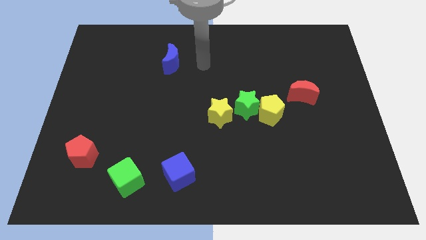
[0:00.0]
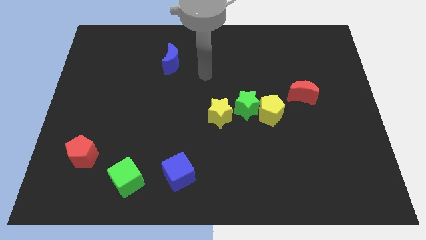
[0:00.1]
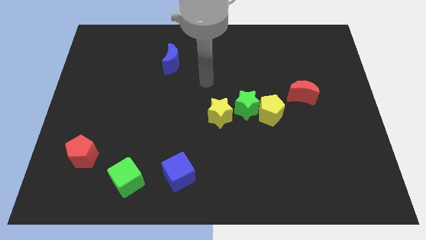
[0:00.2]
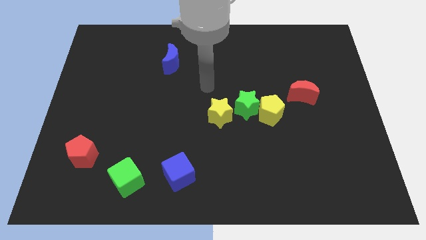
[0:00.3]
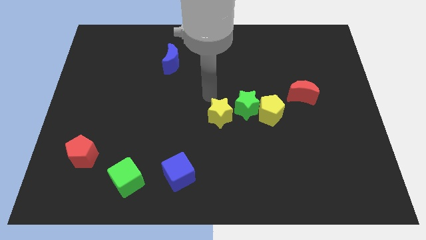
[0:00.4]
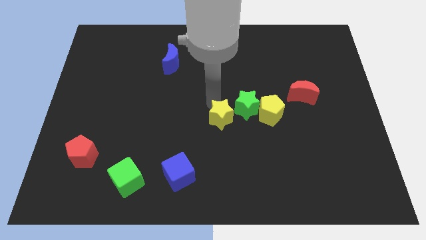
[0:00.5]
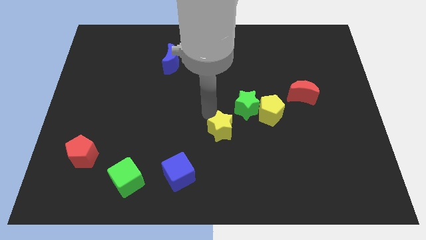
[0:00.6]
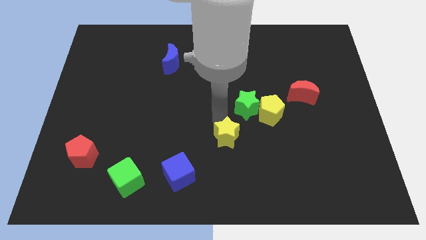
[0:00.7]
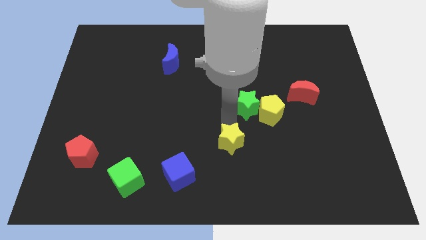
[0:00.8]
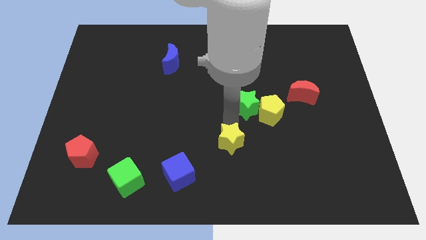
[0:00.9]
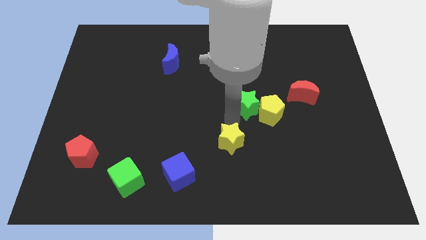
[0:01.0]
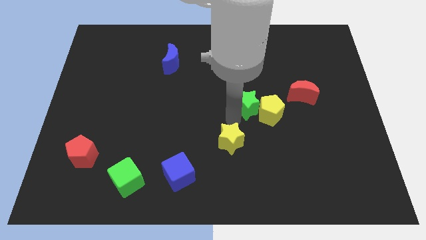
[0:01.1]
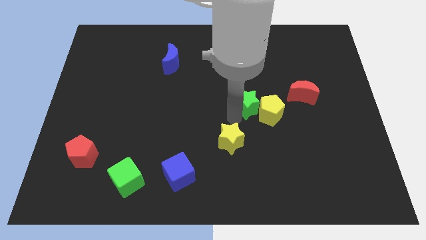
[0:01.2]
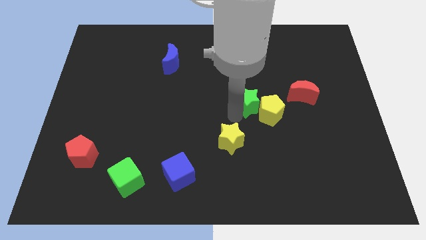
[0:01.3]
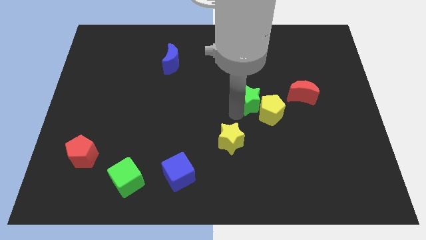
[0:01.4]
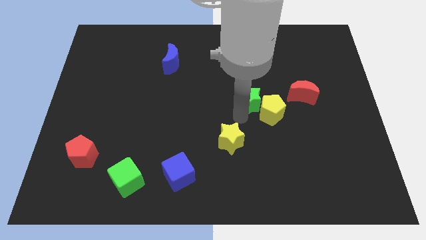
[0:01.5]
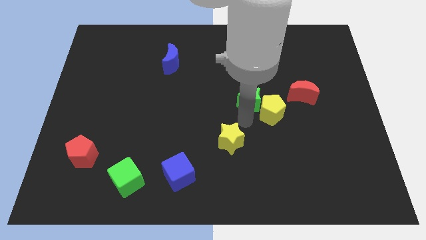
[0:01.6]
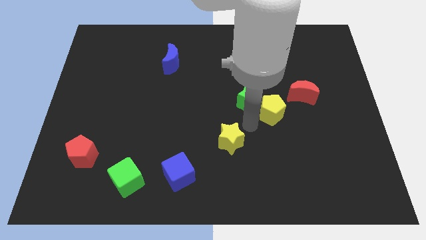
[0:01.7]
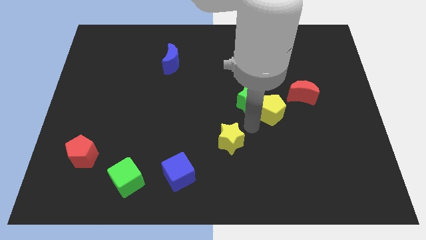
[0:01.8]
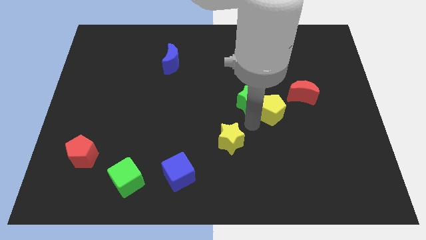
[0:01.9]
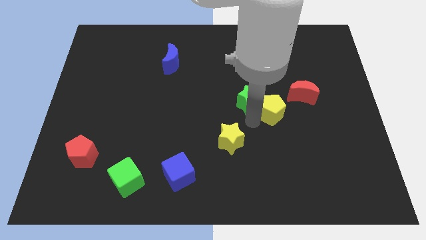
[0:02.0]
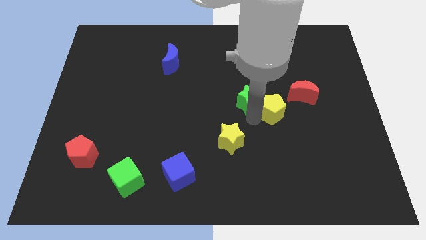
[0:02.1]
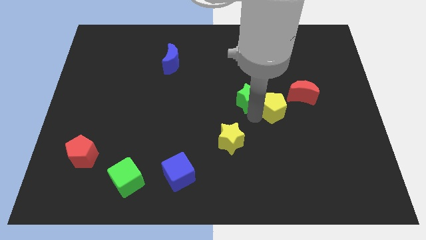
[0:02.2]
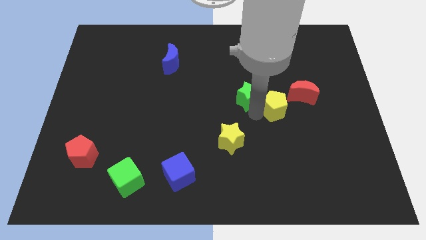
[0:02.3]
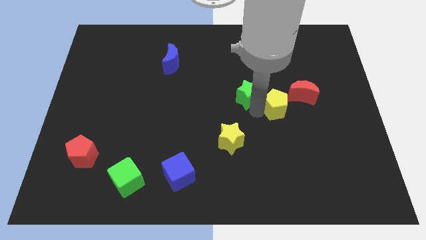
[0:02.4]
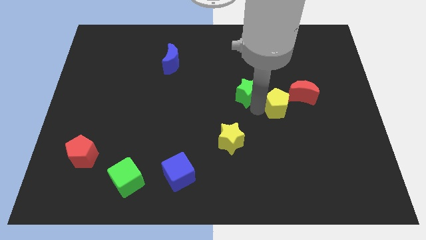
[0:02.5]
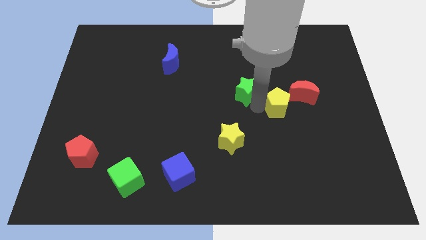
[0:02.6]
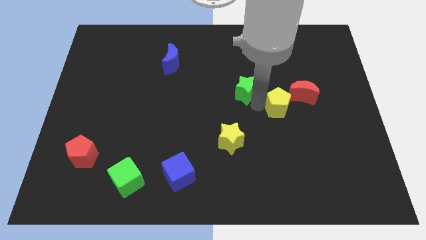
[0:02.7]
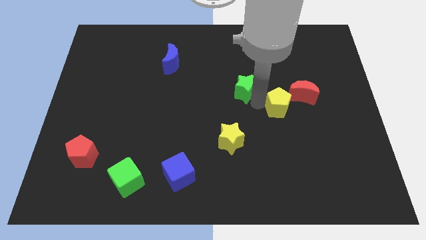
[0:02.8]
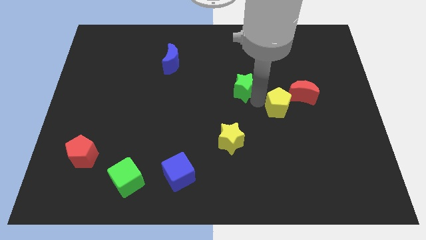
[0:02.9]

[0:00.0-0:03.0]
separate the green star from the yellow pentagon and yellow star

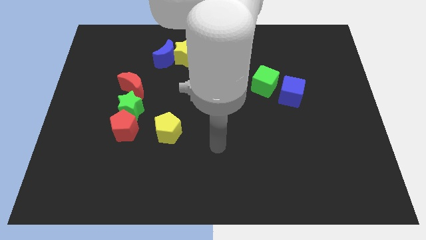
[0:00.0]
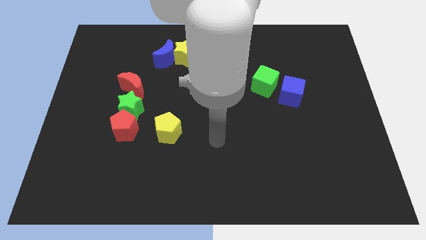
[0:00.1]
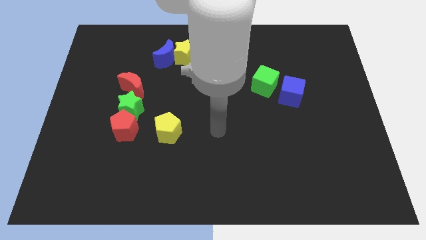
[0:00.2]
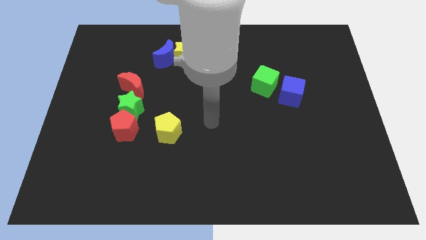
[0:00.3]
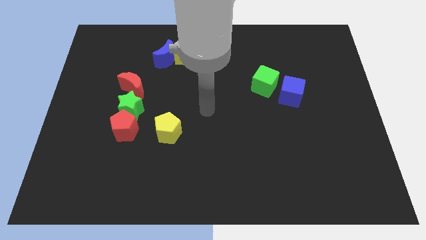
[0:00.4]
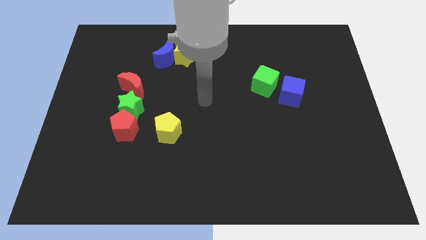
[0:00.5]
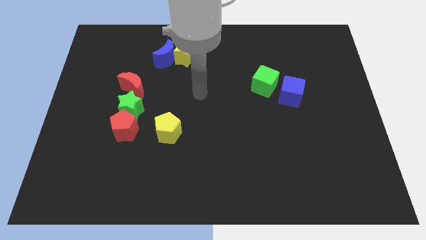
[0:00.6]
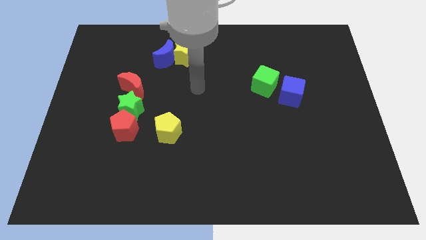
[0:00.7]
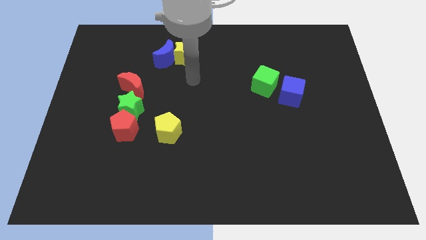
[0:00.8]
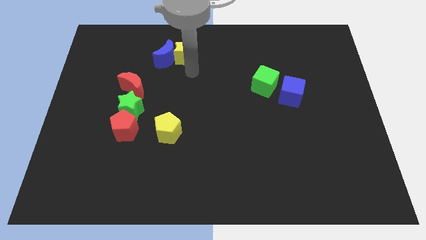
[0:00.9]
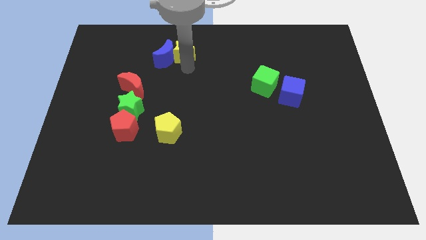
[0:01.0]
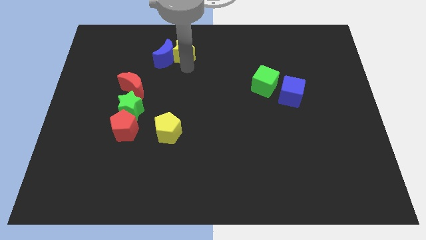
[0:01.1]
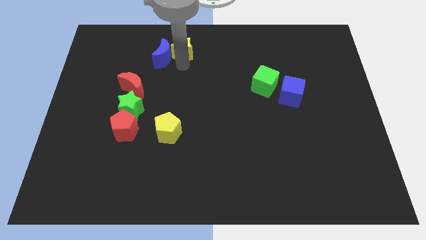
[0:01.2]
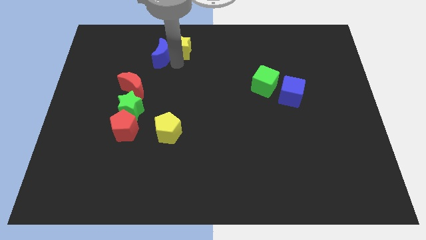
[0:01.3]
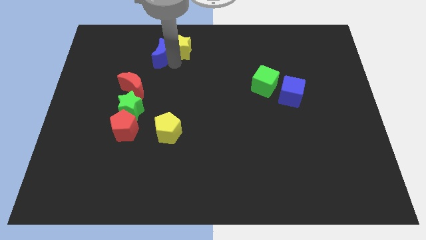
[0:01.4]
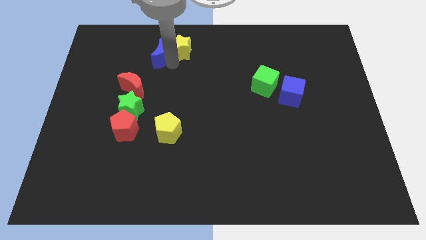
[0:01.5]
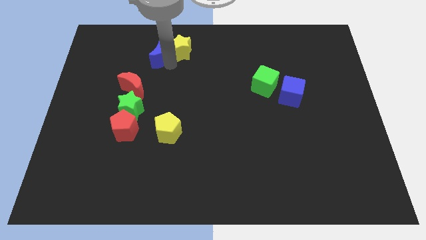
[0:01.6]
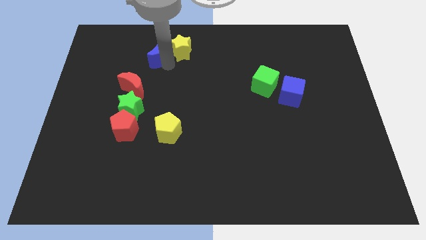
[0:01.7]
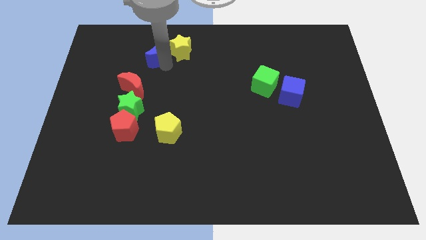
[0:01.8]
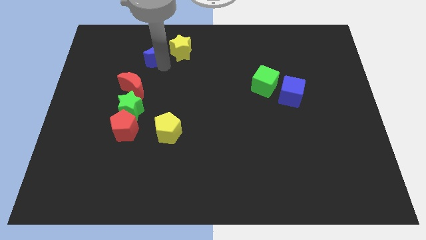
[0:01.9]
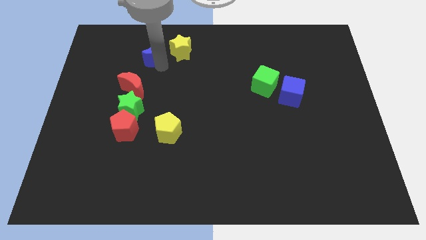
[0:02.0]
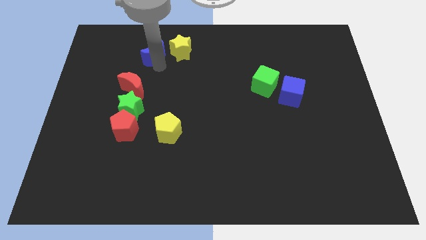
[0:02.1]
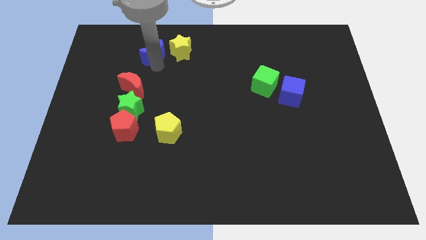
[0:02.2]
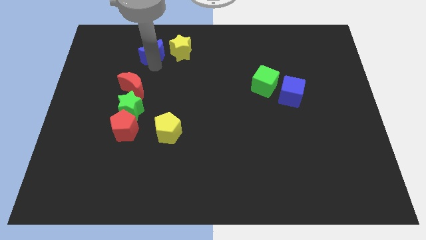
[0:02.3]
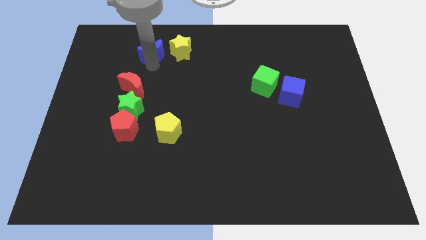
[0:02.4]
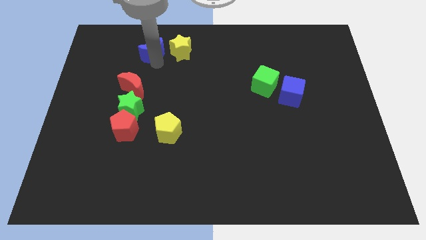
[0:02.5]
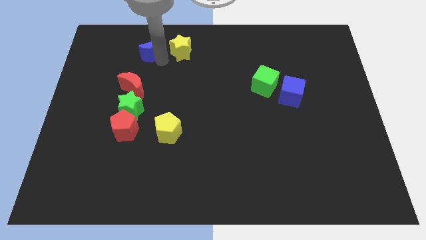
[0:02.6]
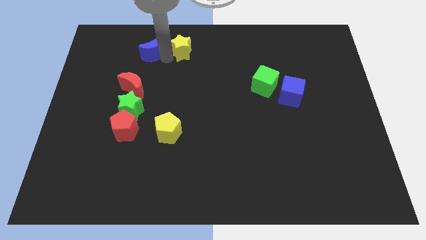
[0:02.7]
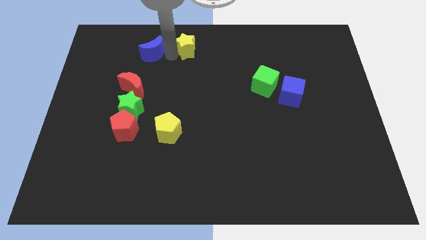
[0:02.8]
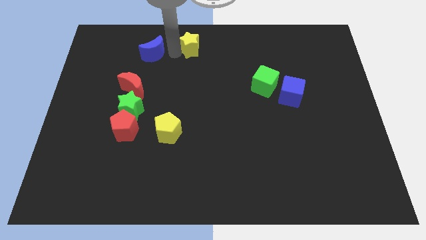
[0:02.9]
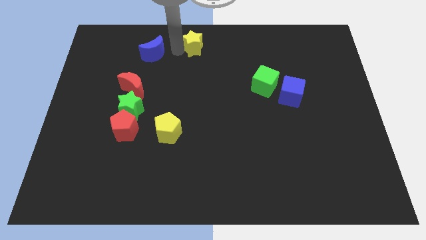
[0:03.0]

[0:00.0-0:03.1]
move the blue moon away from the yellow star

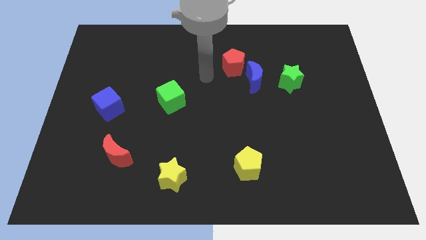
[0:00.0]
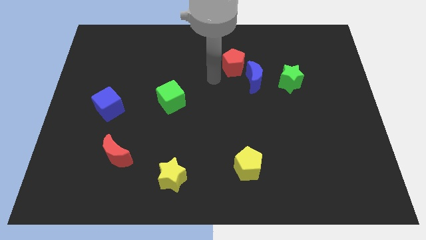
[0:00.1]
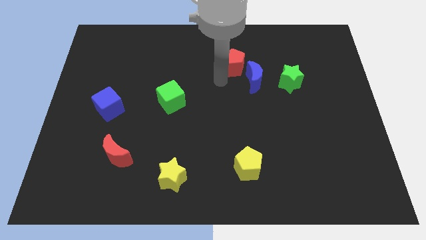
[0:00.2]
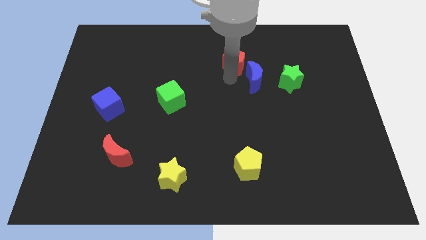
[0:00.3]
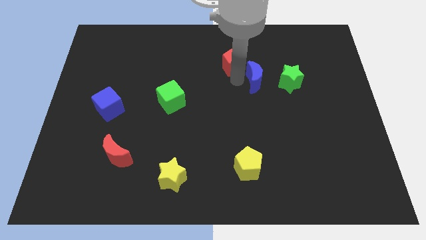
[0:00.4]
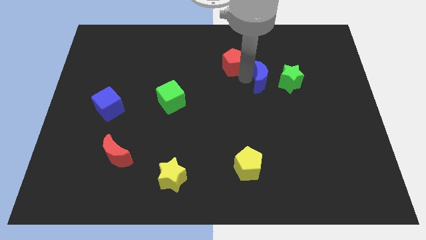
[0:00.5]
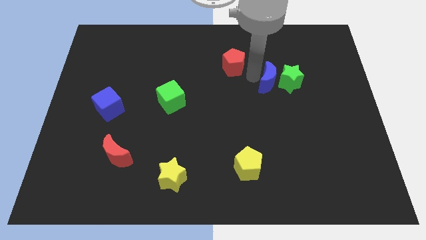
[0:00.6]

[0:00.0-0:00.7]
pull the red pentagon apart from the blue moon

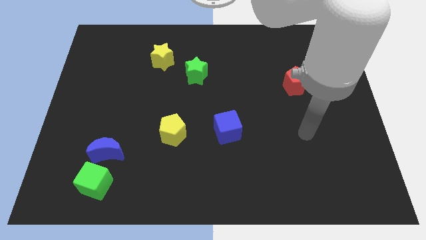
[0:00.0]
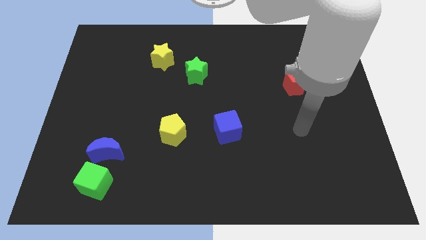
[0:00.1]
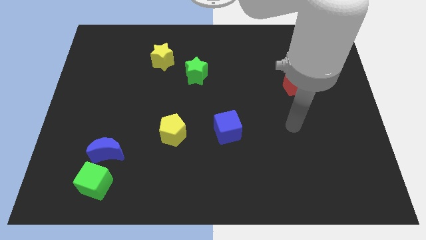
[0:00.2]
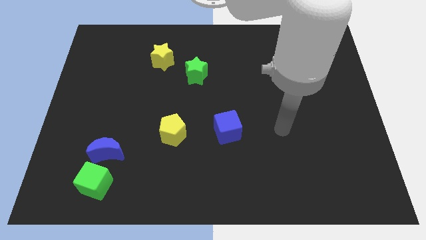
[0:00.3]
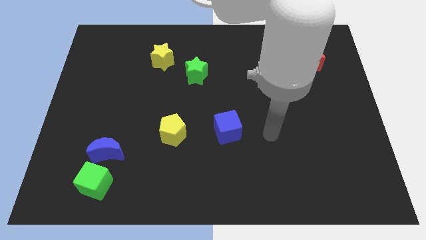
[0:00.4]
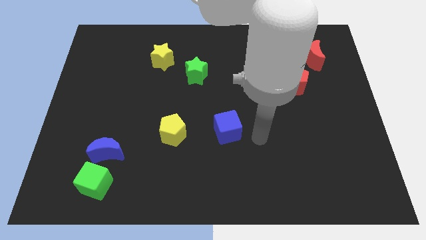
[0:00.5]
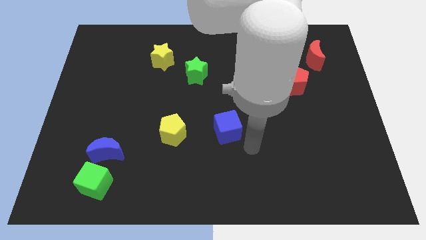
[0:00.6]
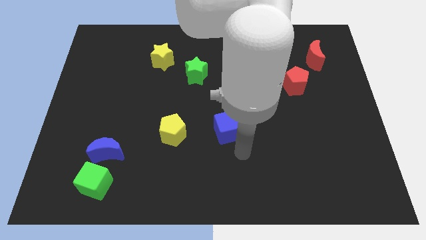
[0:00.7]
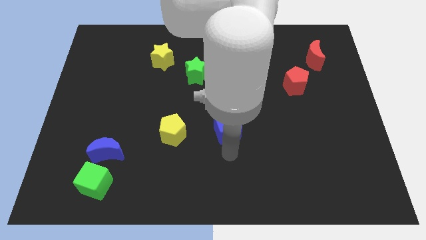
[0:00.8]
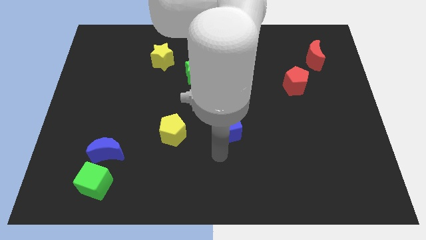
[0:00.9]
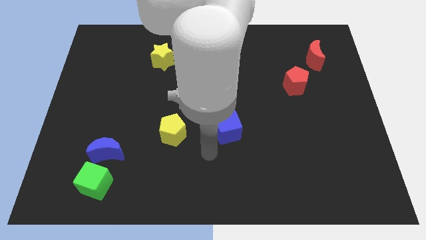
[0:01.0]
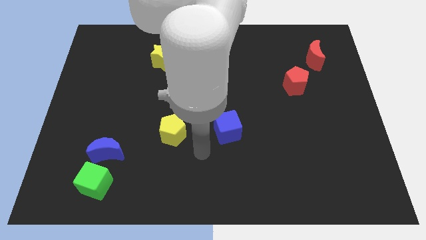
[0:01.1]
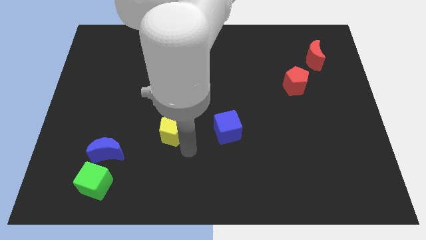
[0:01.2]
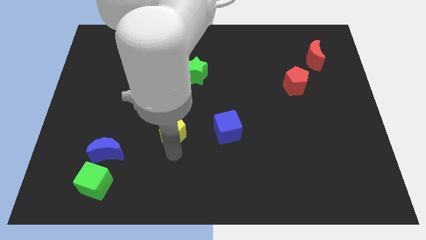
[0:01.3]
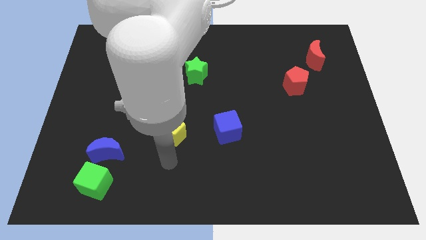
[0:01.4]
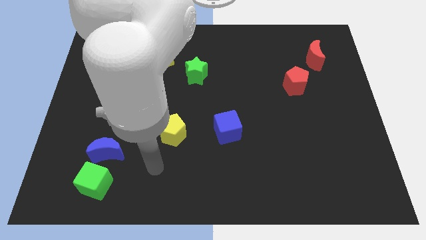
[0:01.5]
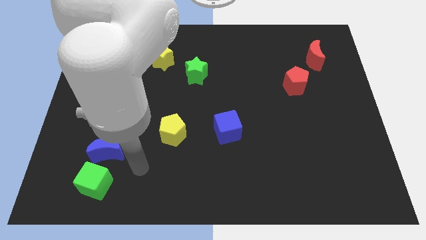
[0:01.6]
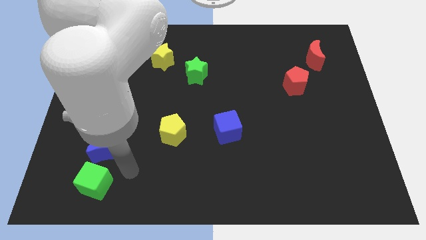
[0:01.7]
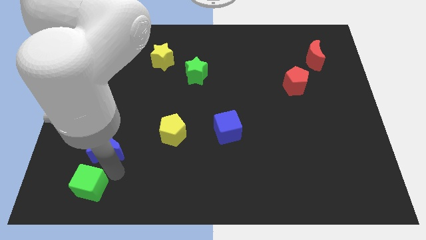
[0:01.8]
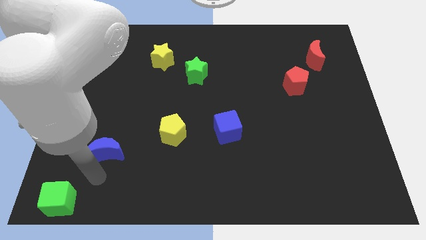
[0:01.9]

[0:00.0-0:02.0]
pull the blue moon apart from the green cube

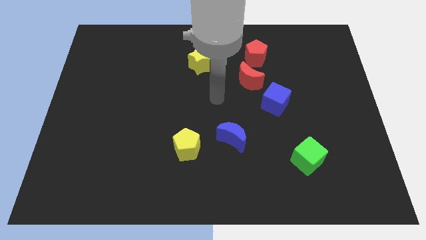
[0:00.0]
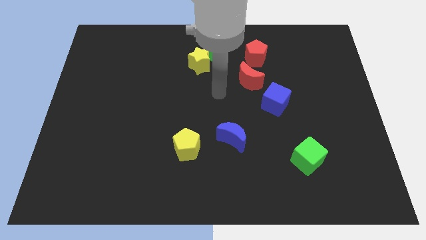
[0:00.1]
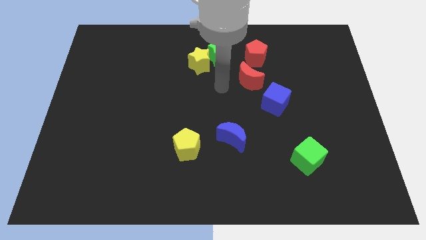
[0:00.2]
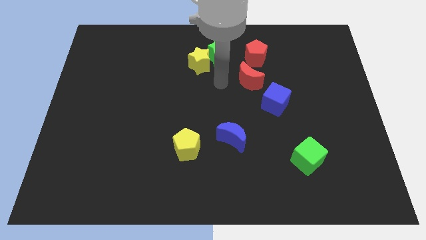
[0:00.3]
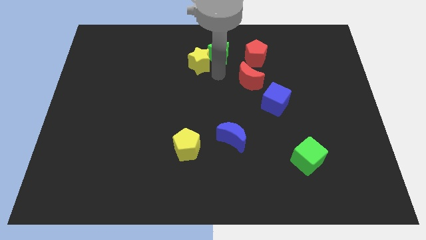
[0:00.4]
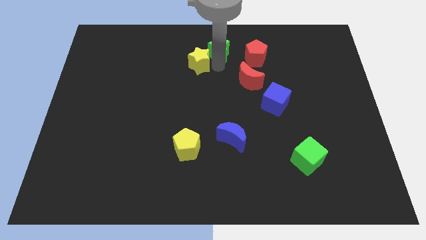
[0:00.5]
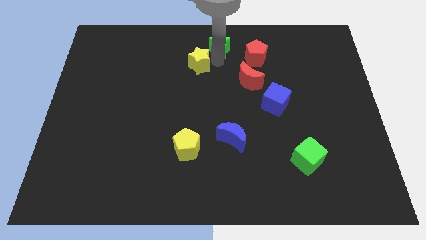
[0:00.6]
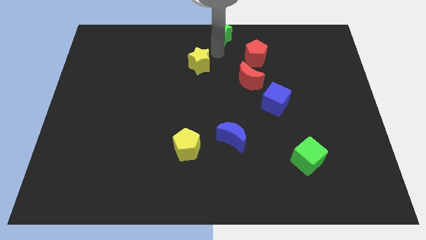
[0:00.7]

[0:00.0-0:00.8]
pull the yellow star apart from the green star
